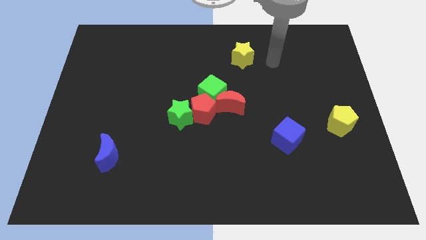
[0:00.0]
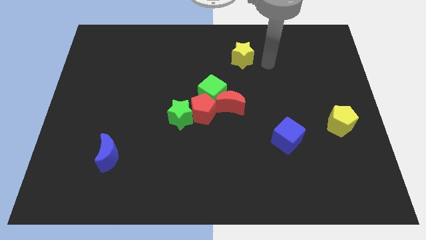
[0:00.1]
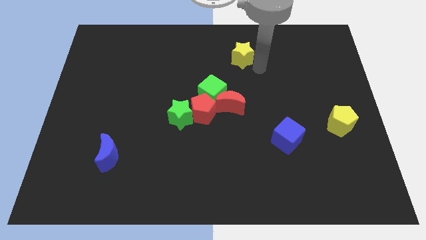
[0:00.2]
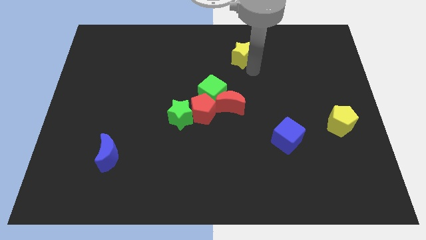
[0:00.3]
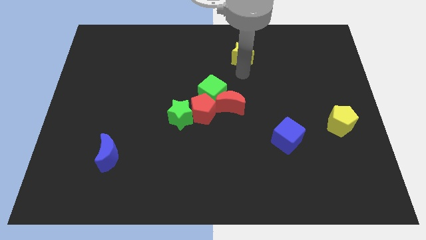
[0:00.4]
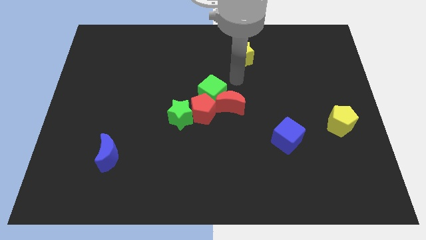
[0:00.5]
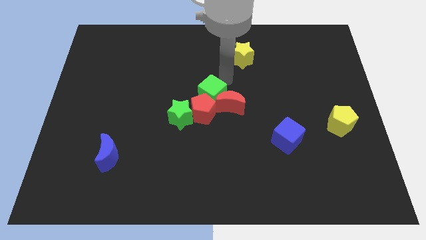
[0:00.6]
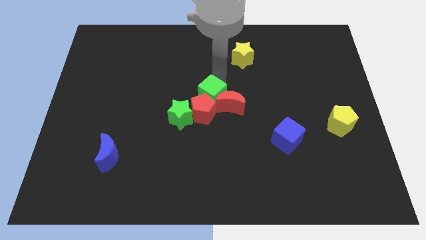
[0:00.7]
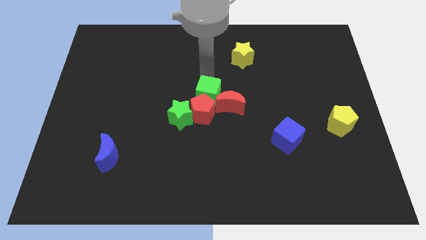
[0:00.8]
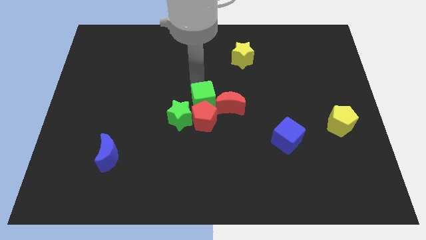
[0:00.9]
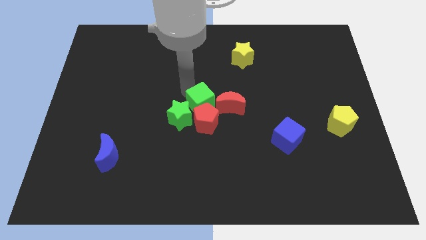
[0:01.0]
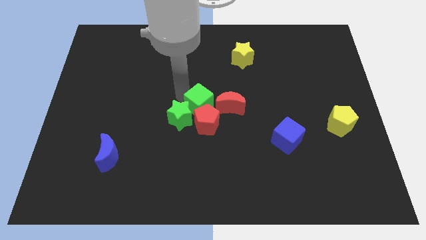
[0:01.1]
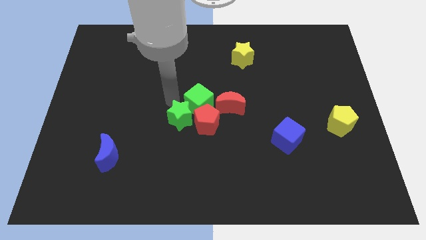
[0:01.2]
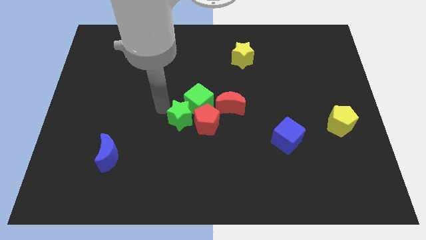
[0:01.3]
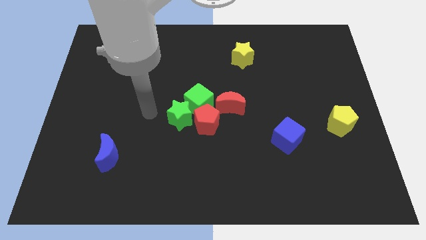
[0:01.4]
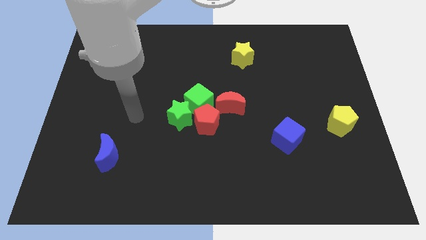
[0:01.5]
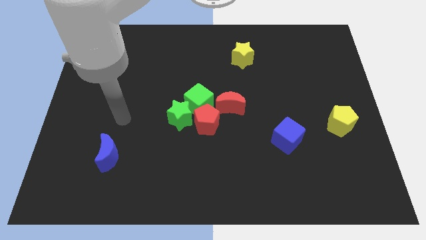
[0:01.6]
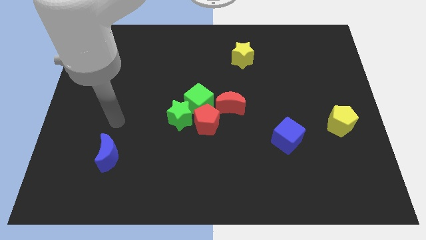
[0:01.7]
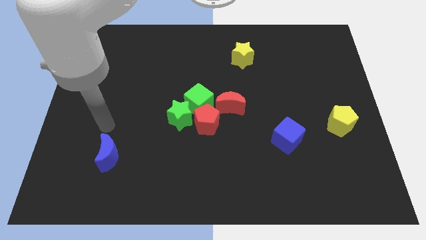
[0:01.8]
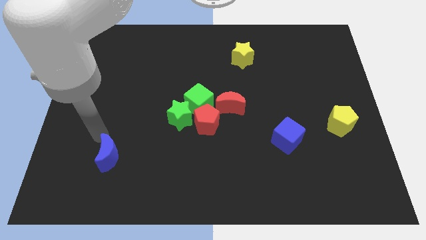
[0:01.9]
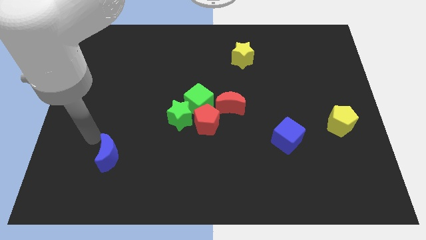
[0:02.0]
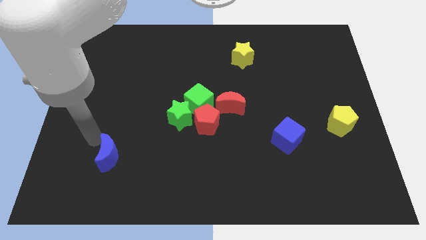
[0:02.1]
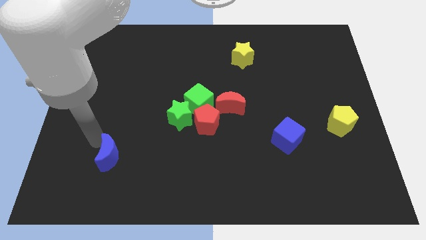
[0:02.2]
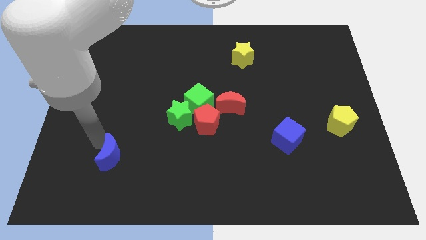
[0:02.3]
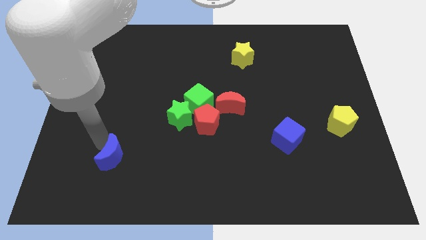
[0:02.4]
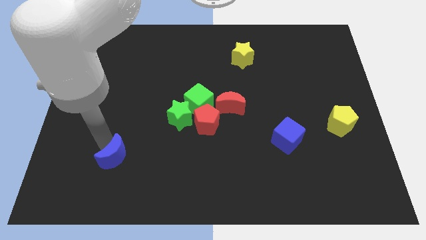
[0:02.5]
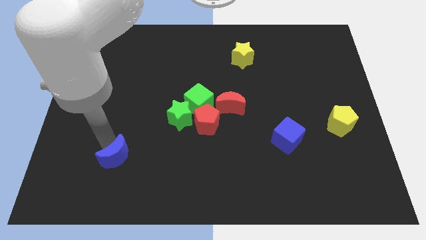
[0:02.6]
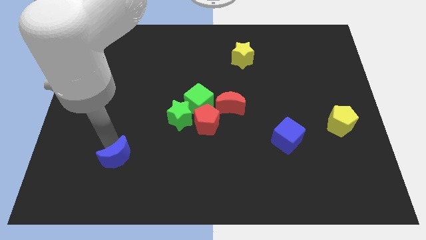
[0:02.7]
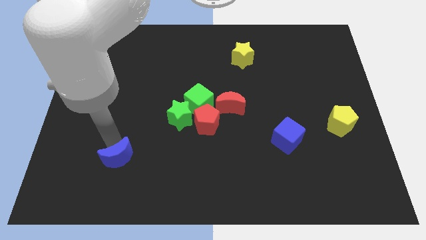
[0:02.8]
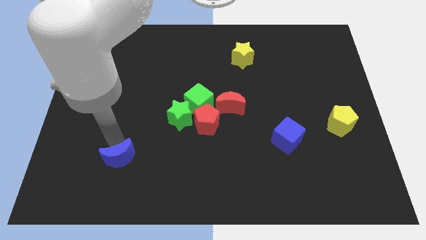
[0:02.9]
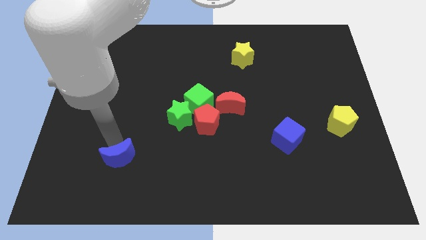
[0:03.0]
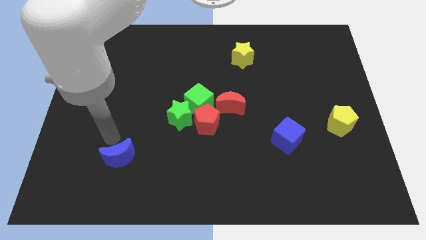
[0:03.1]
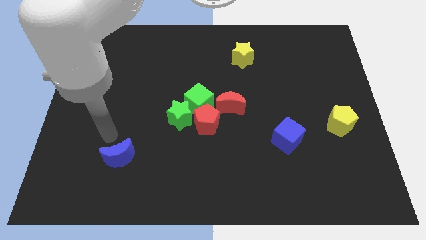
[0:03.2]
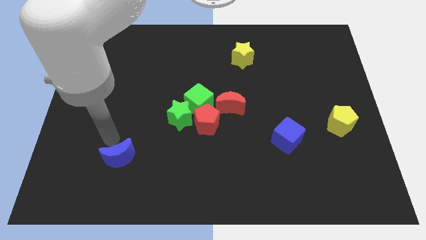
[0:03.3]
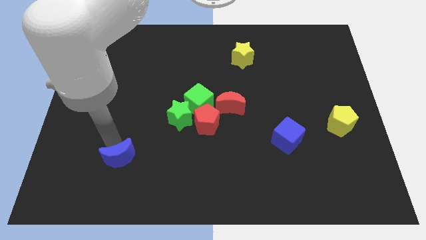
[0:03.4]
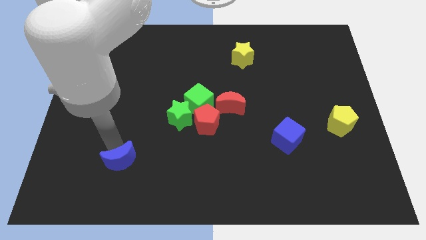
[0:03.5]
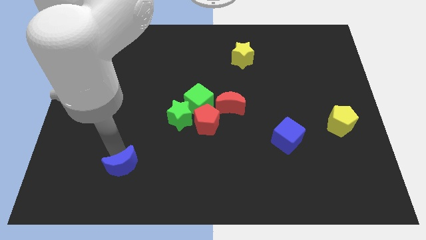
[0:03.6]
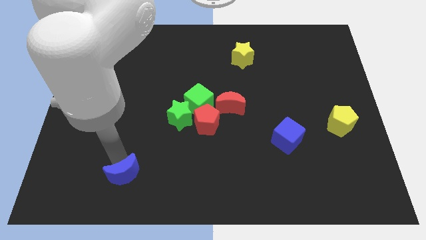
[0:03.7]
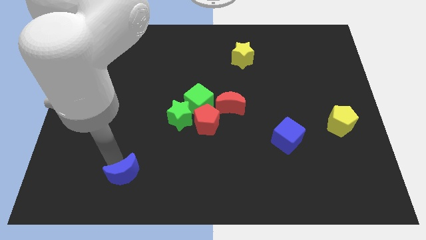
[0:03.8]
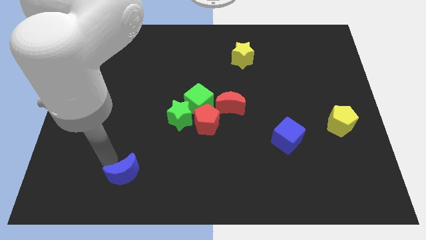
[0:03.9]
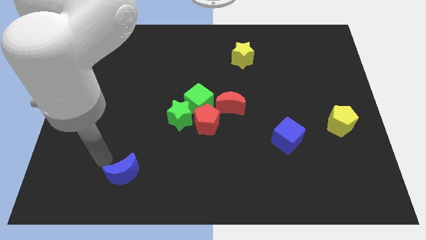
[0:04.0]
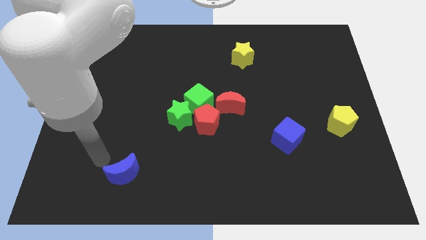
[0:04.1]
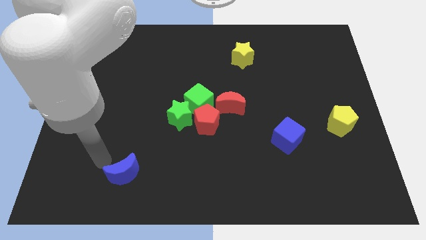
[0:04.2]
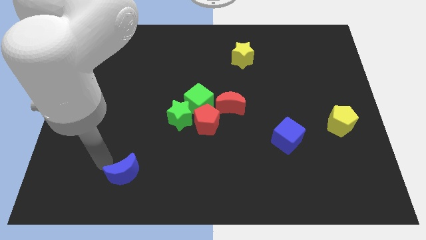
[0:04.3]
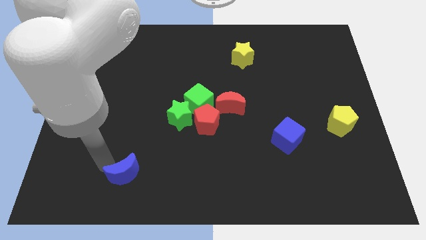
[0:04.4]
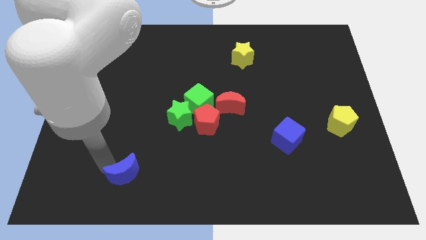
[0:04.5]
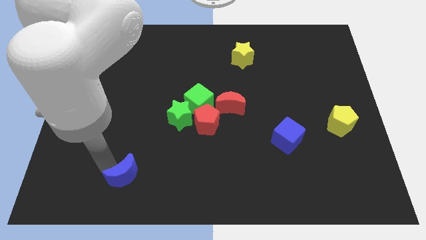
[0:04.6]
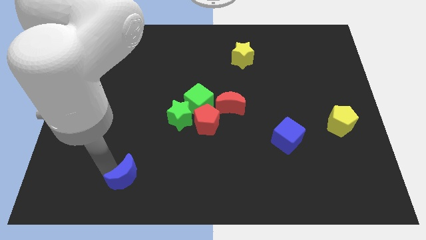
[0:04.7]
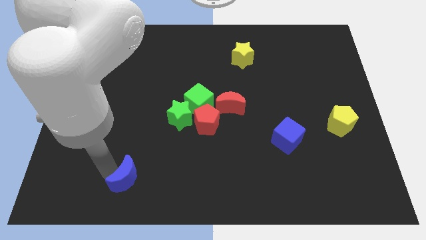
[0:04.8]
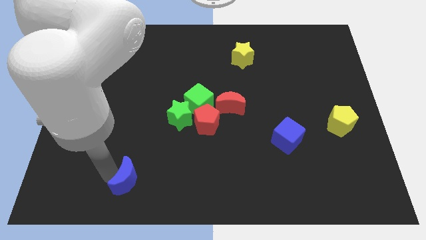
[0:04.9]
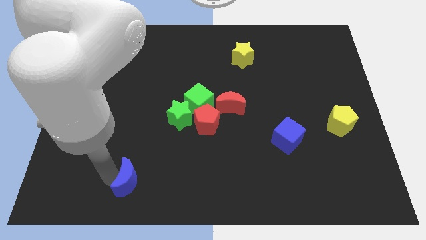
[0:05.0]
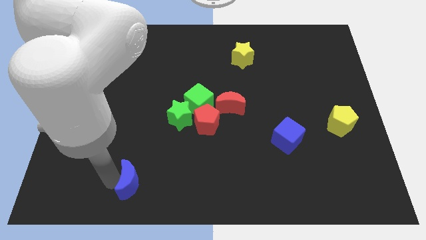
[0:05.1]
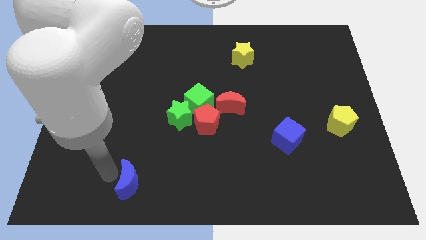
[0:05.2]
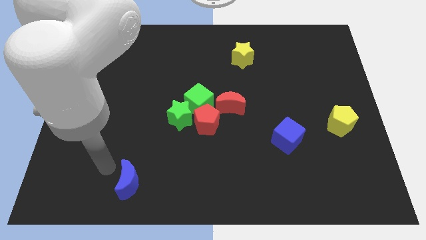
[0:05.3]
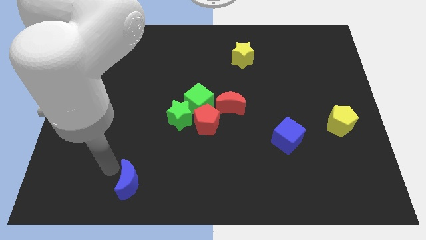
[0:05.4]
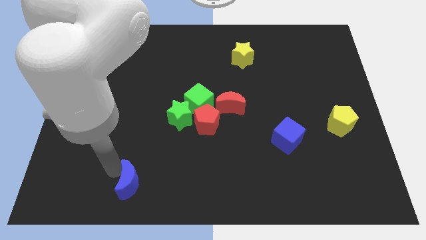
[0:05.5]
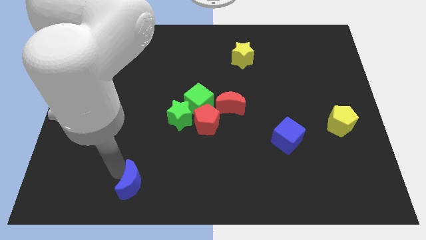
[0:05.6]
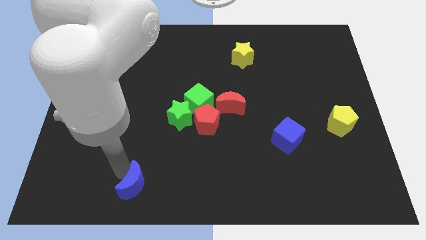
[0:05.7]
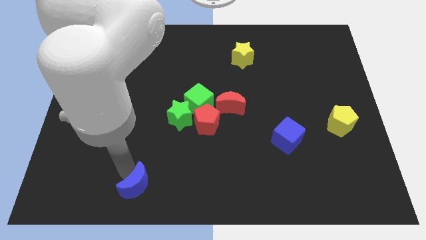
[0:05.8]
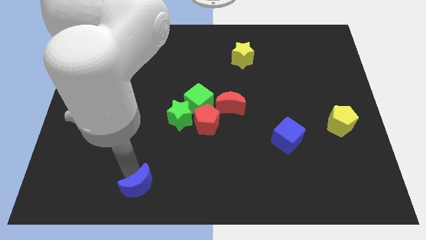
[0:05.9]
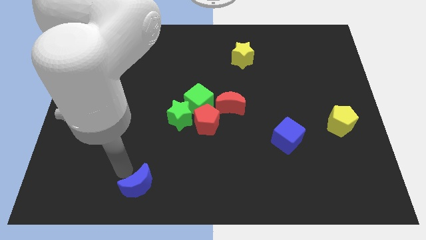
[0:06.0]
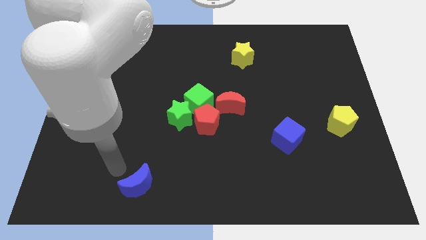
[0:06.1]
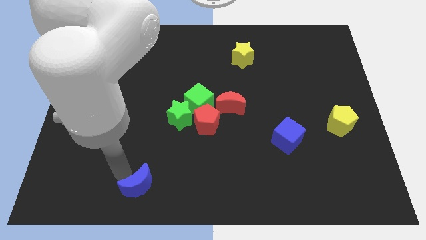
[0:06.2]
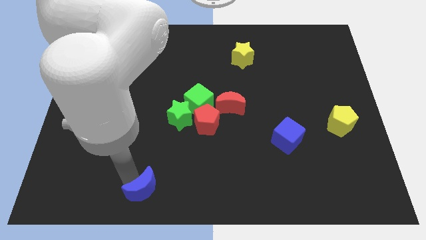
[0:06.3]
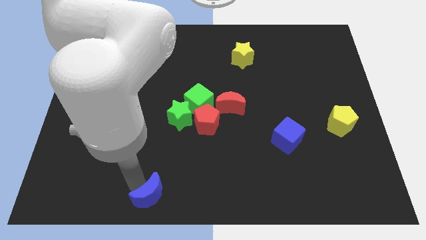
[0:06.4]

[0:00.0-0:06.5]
put the blue moon to the bottom side
